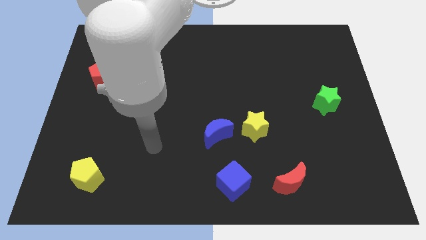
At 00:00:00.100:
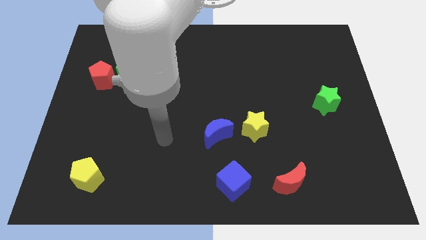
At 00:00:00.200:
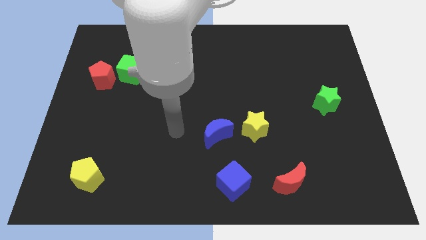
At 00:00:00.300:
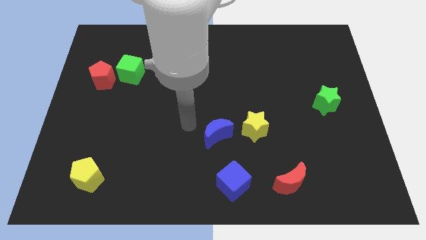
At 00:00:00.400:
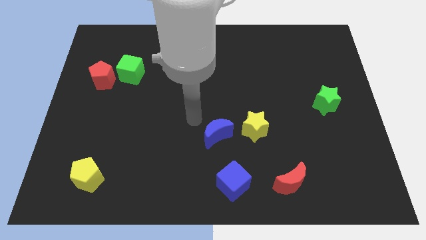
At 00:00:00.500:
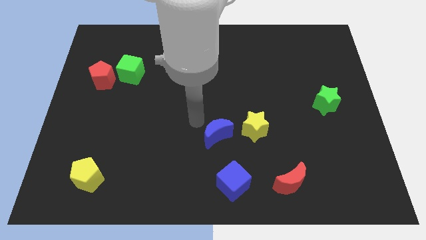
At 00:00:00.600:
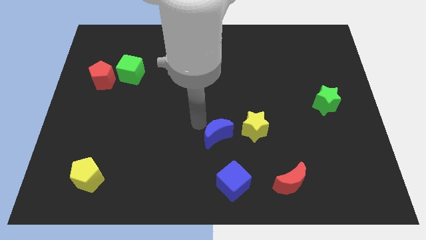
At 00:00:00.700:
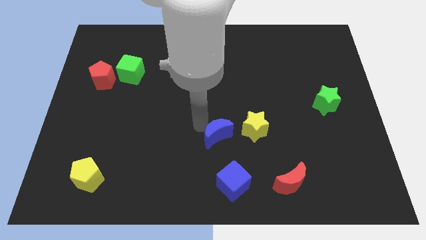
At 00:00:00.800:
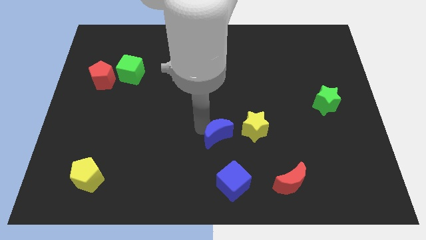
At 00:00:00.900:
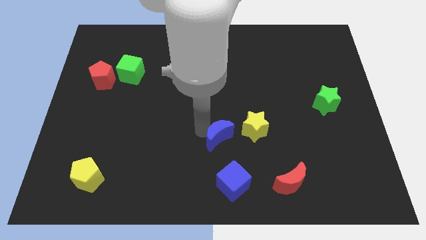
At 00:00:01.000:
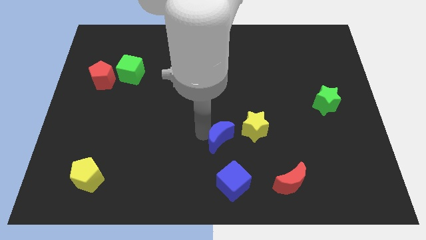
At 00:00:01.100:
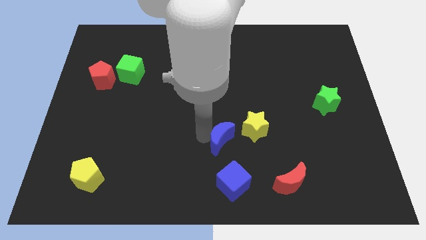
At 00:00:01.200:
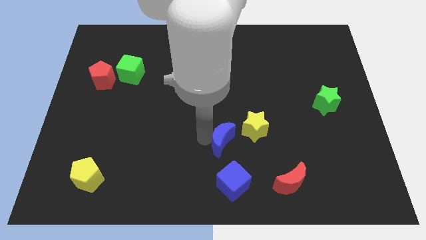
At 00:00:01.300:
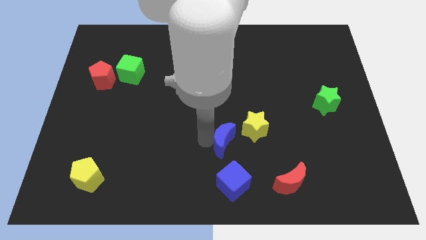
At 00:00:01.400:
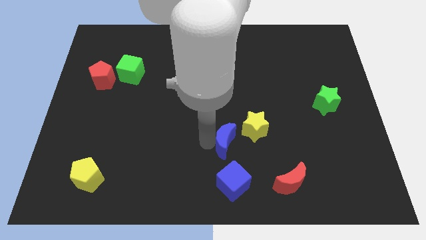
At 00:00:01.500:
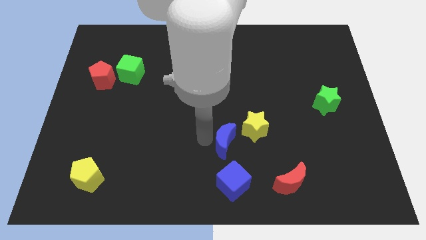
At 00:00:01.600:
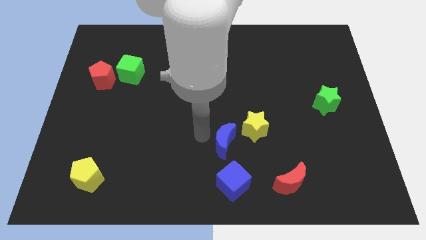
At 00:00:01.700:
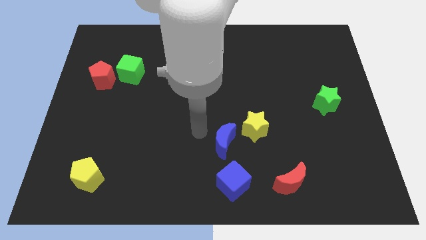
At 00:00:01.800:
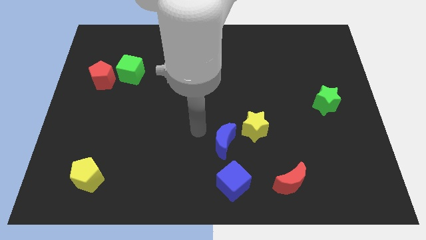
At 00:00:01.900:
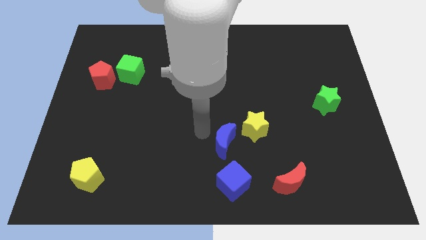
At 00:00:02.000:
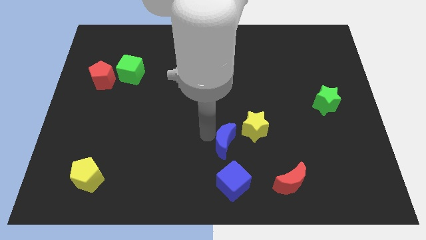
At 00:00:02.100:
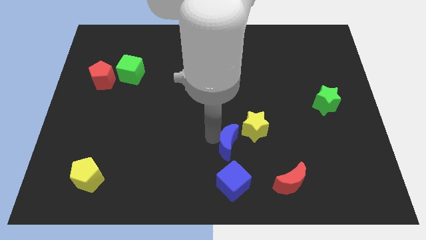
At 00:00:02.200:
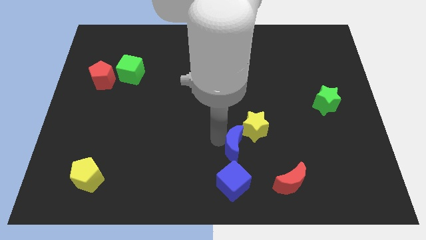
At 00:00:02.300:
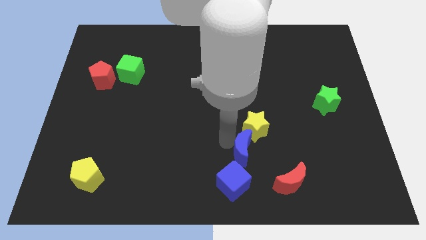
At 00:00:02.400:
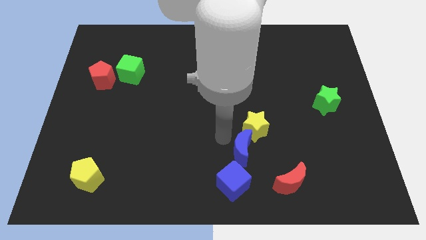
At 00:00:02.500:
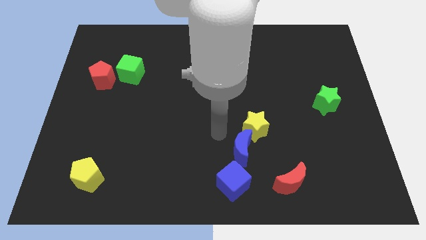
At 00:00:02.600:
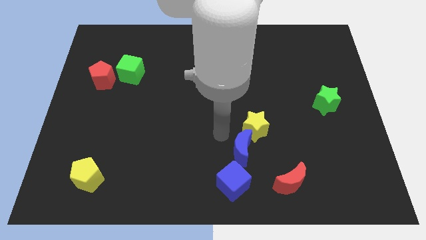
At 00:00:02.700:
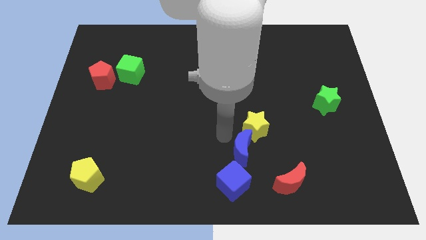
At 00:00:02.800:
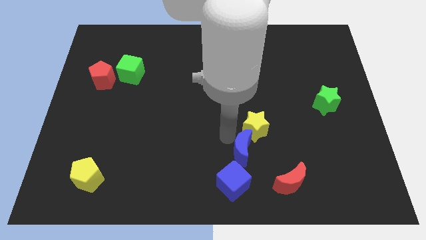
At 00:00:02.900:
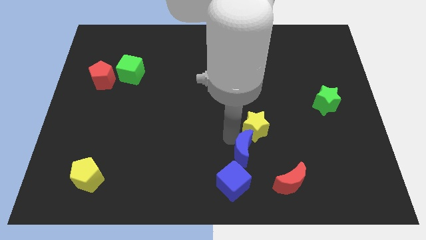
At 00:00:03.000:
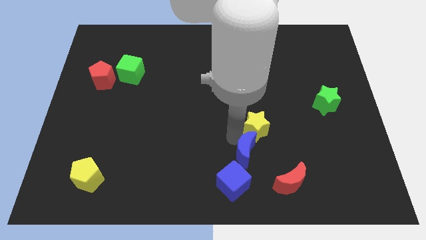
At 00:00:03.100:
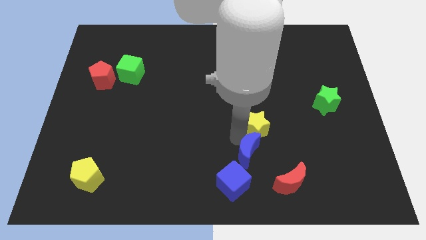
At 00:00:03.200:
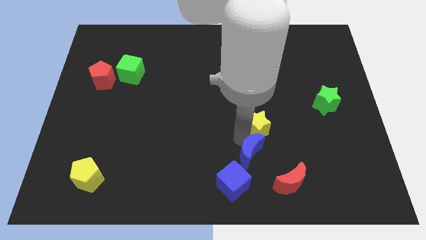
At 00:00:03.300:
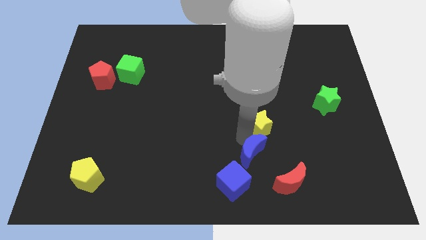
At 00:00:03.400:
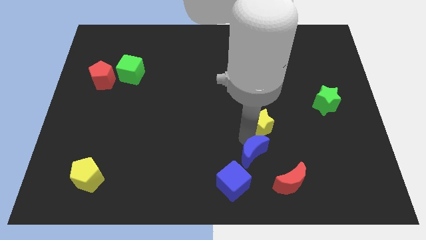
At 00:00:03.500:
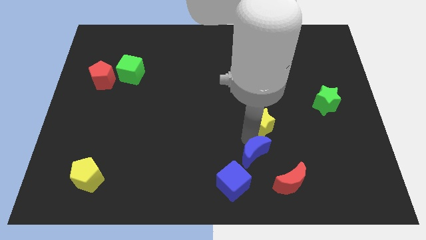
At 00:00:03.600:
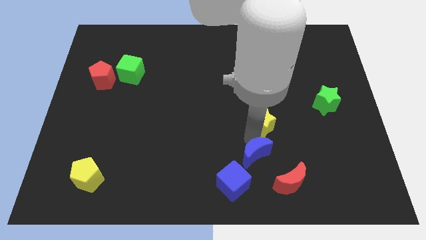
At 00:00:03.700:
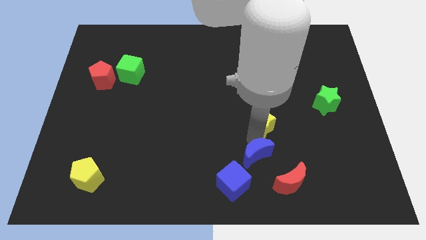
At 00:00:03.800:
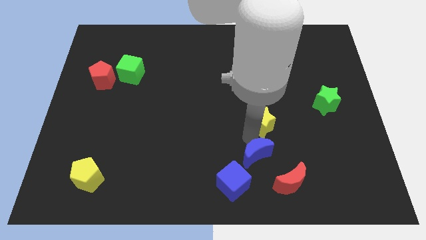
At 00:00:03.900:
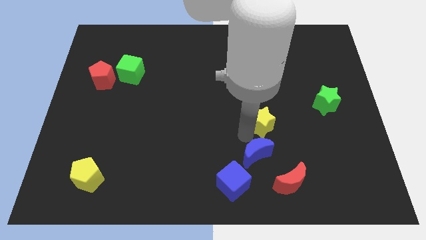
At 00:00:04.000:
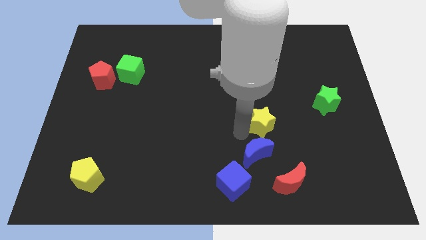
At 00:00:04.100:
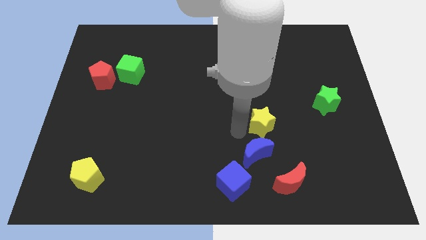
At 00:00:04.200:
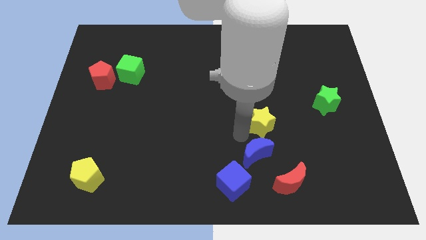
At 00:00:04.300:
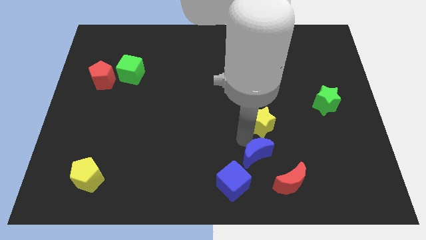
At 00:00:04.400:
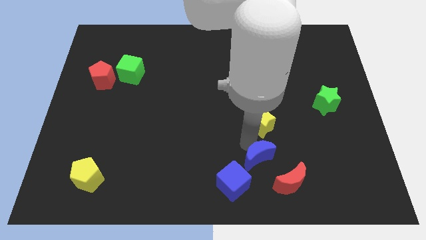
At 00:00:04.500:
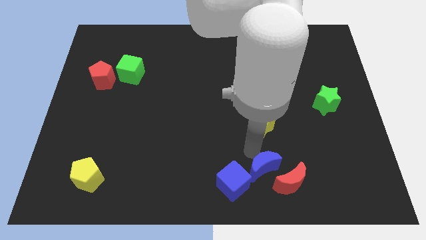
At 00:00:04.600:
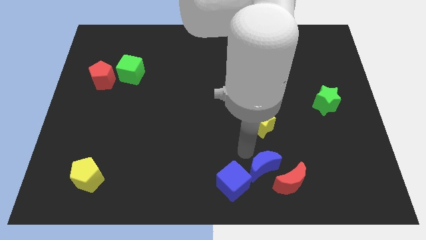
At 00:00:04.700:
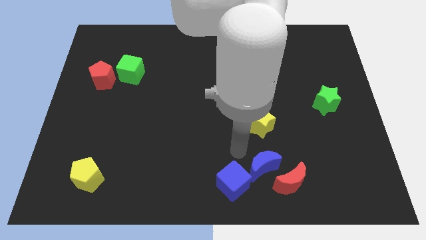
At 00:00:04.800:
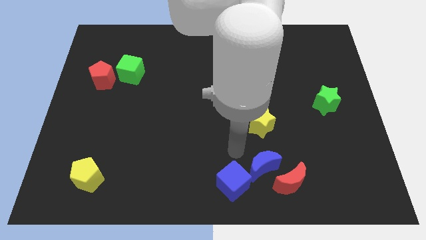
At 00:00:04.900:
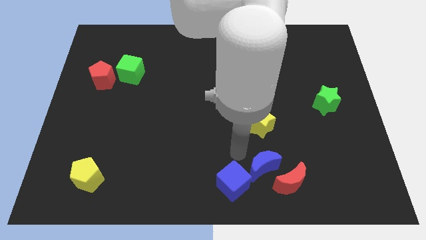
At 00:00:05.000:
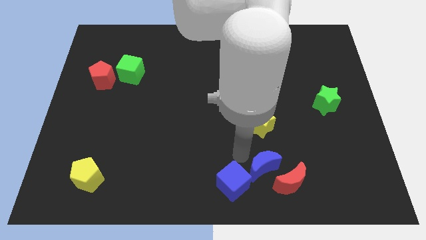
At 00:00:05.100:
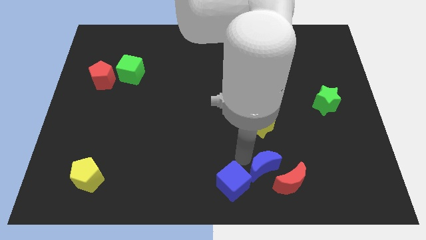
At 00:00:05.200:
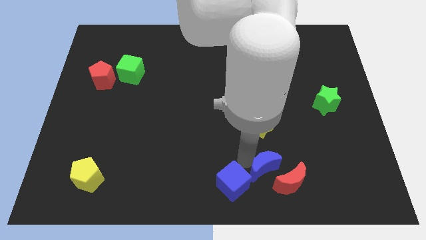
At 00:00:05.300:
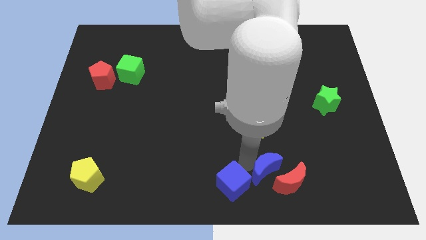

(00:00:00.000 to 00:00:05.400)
push the blue moon towards the red moon

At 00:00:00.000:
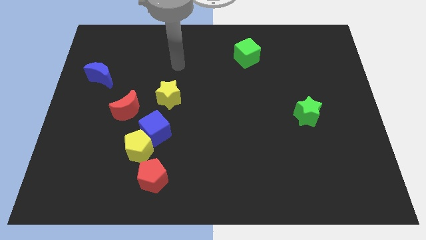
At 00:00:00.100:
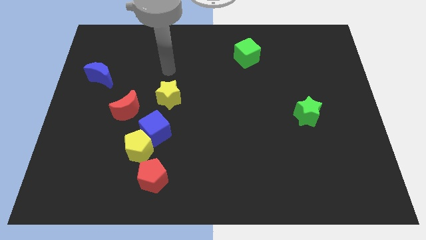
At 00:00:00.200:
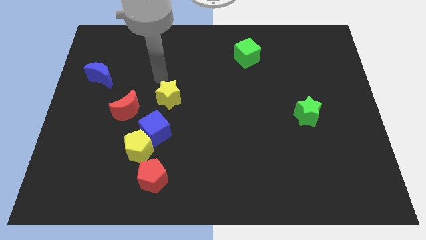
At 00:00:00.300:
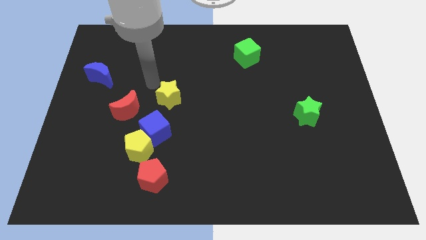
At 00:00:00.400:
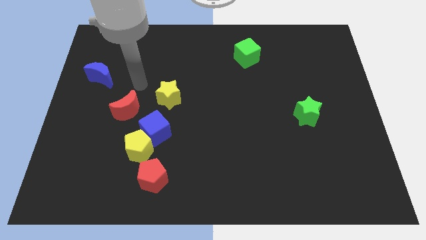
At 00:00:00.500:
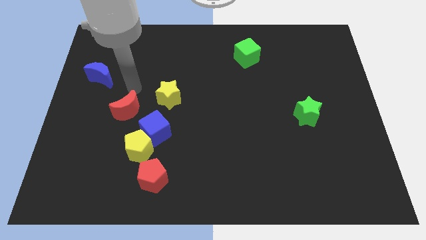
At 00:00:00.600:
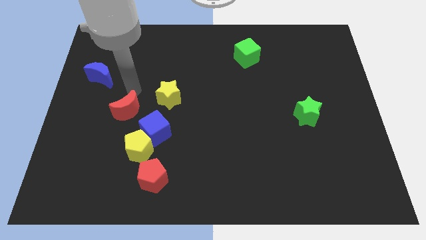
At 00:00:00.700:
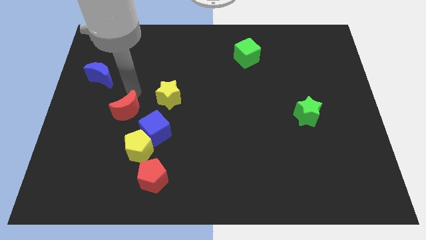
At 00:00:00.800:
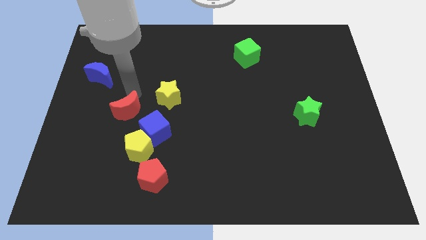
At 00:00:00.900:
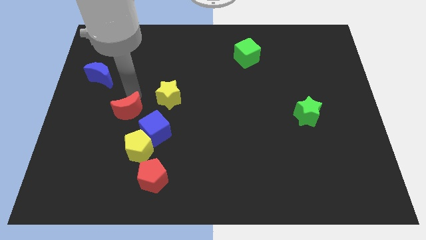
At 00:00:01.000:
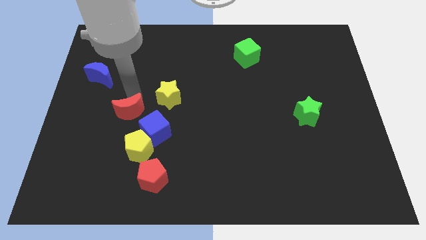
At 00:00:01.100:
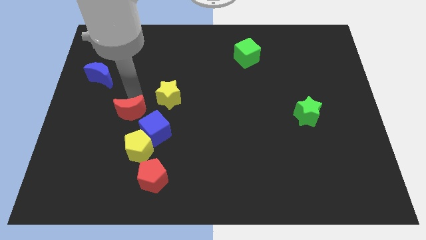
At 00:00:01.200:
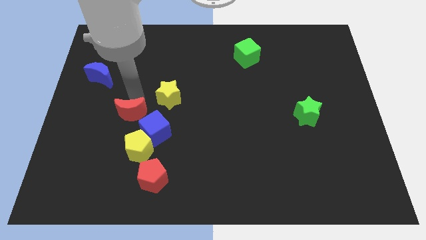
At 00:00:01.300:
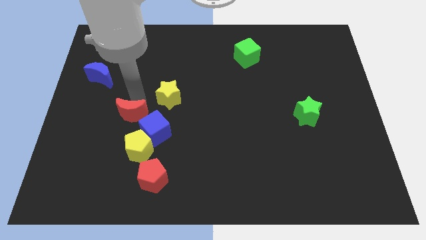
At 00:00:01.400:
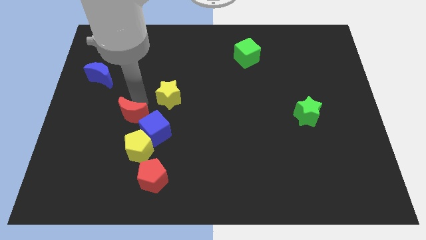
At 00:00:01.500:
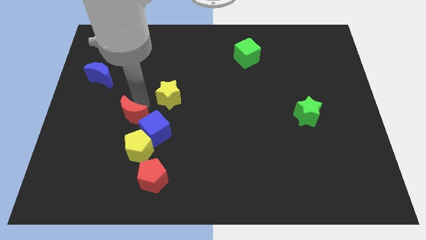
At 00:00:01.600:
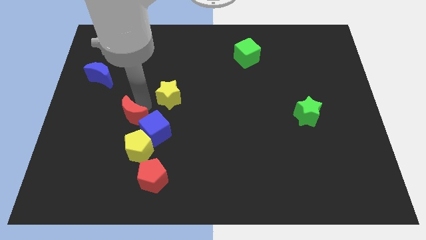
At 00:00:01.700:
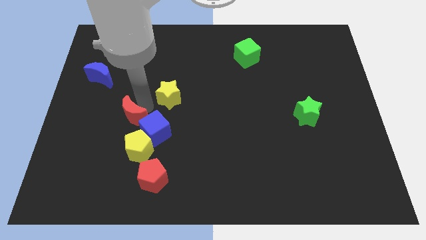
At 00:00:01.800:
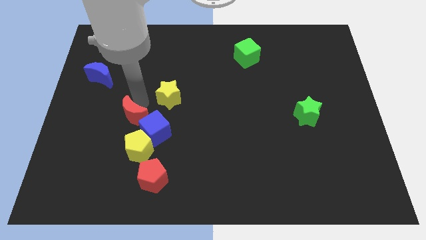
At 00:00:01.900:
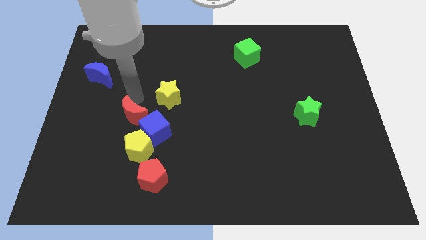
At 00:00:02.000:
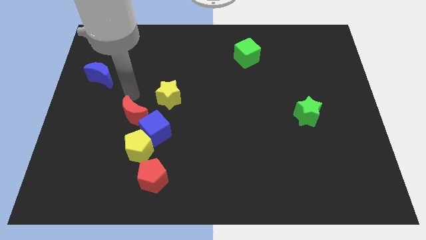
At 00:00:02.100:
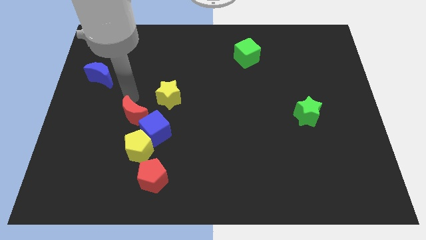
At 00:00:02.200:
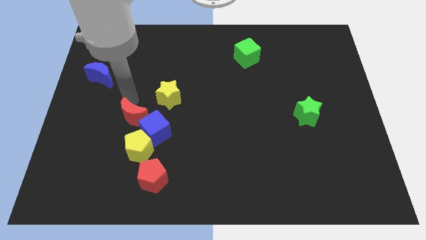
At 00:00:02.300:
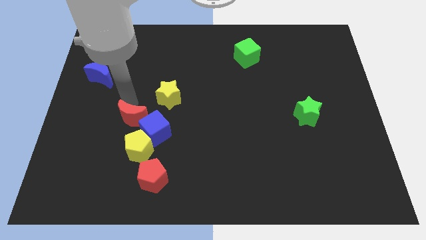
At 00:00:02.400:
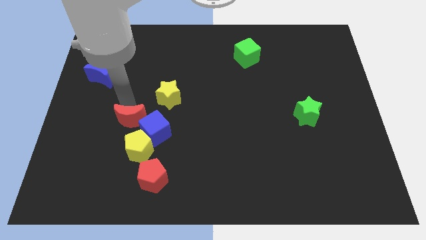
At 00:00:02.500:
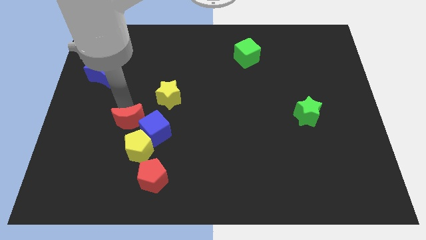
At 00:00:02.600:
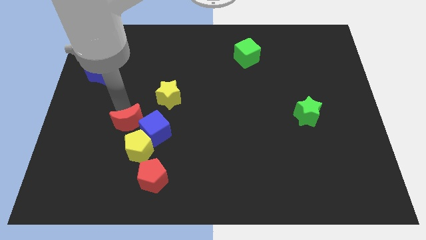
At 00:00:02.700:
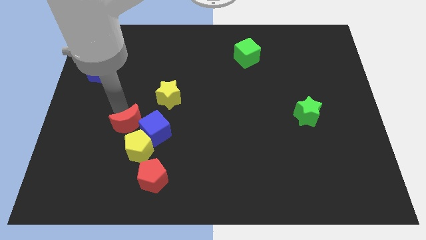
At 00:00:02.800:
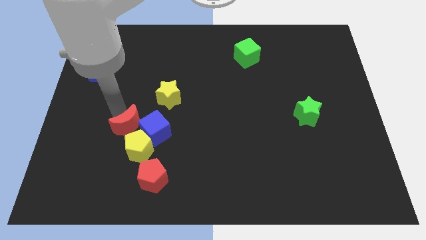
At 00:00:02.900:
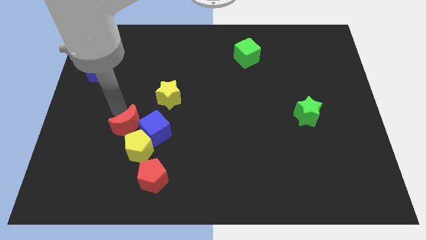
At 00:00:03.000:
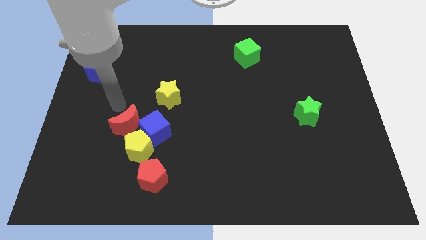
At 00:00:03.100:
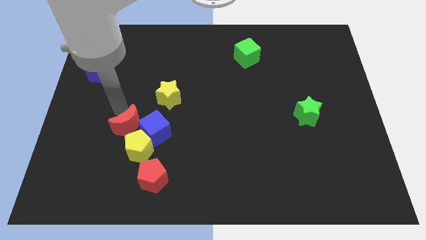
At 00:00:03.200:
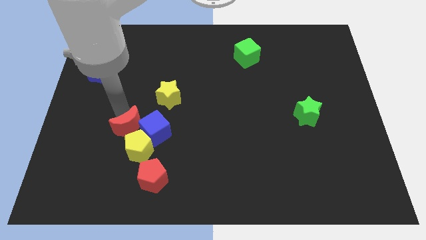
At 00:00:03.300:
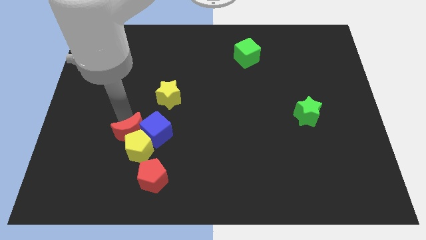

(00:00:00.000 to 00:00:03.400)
push the red moon close to the yellow pentagon
